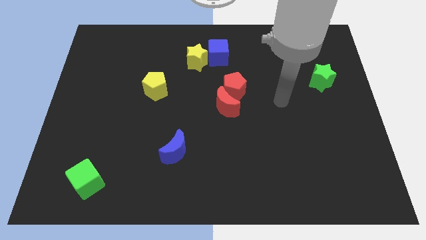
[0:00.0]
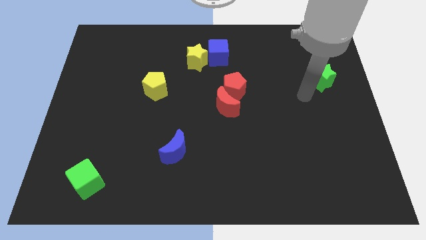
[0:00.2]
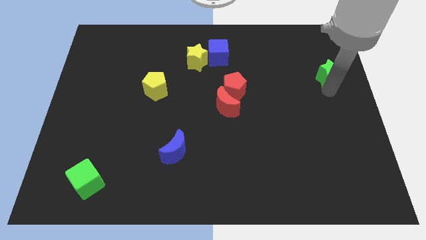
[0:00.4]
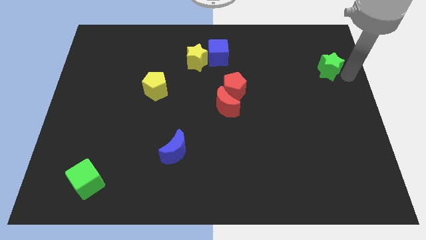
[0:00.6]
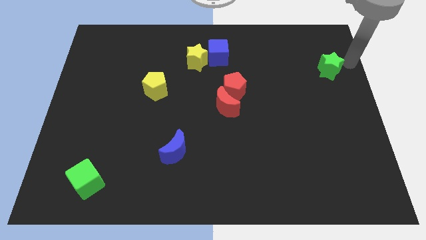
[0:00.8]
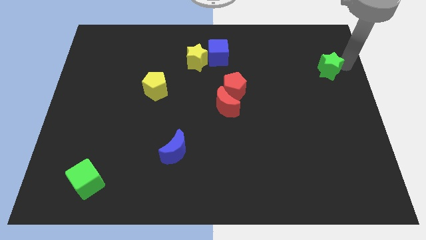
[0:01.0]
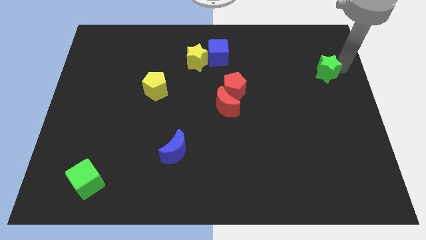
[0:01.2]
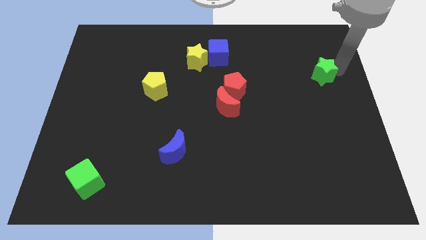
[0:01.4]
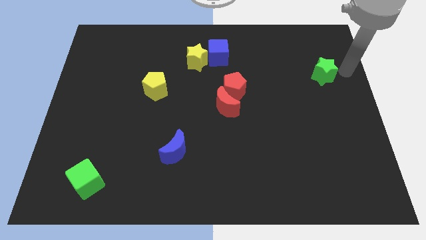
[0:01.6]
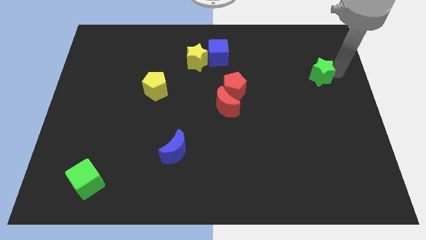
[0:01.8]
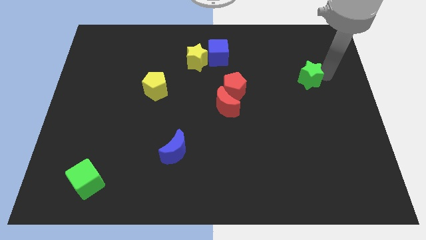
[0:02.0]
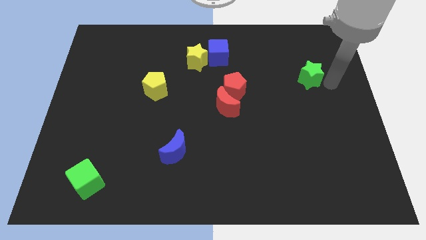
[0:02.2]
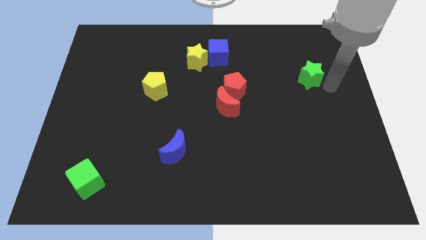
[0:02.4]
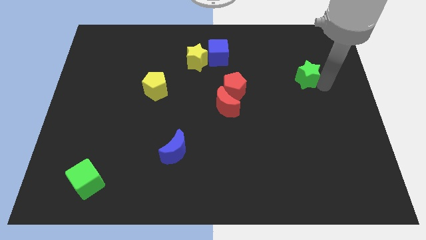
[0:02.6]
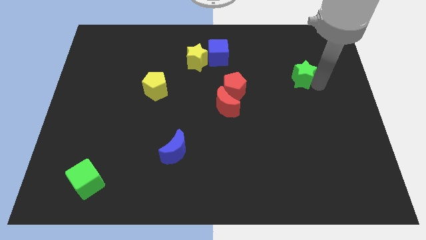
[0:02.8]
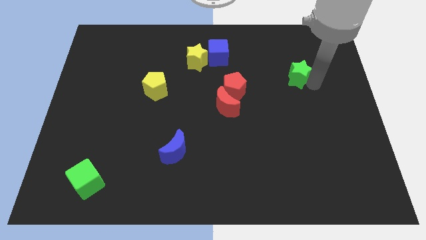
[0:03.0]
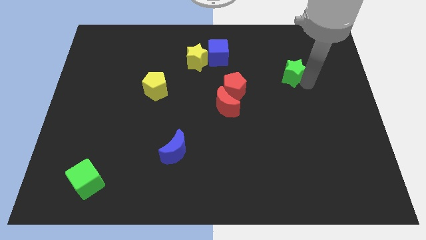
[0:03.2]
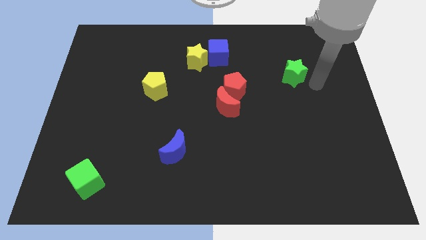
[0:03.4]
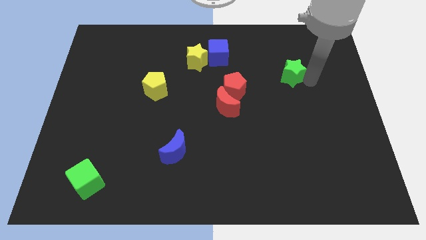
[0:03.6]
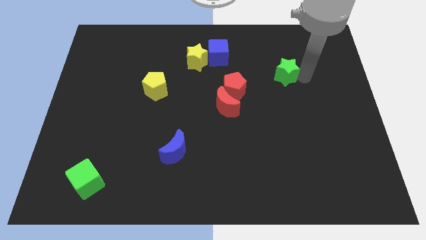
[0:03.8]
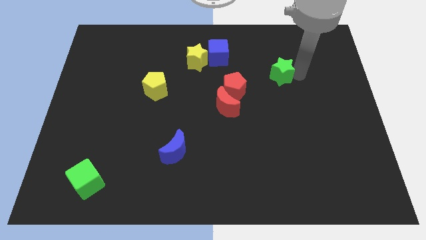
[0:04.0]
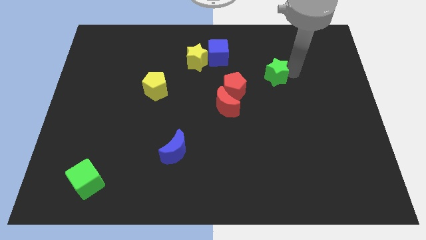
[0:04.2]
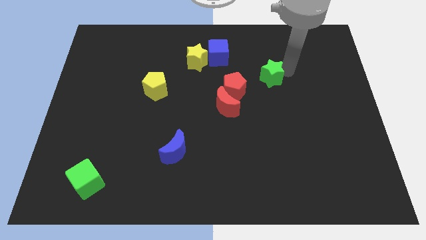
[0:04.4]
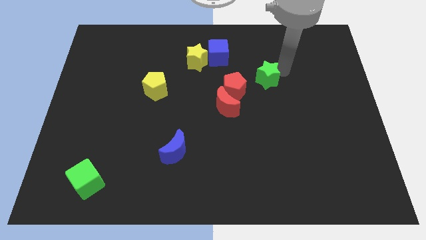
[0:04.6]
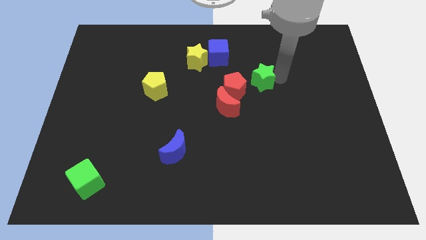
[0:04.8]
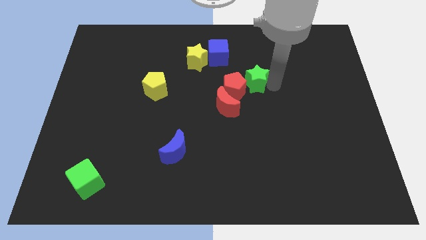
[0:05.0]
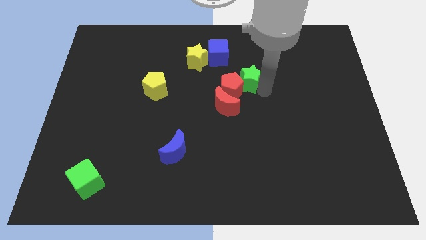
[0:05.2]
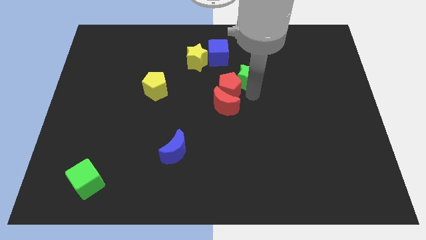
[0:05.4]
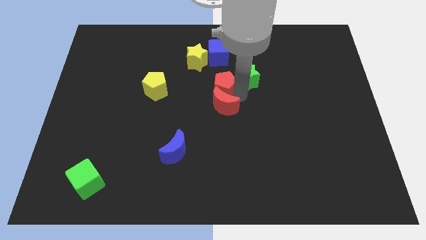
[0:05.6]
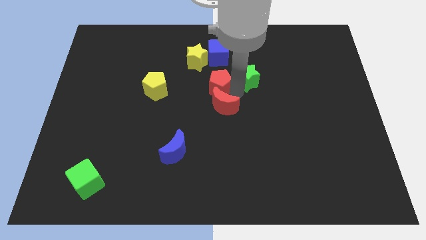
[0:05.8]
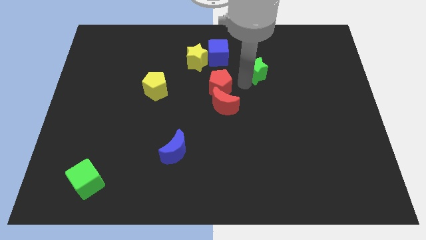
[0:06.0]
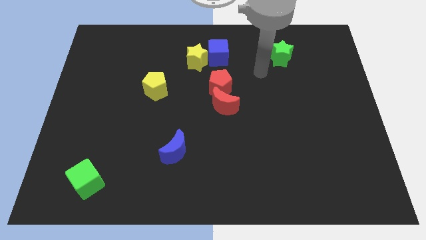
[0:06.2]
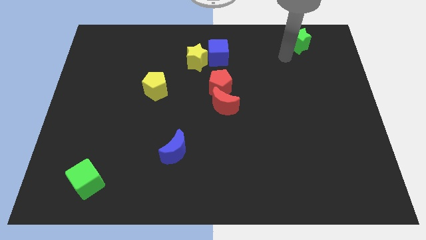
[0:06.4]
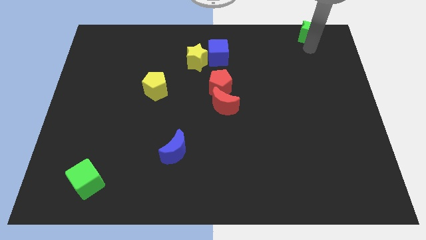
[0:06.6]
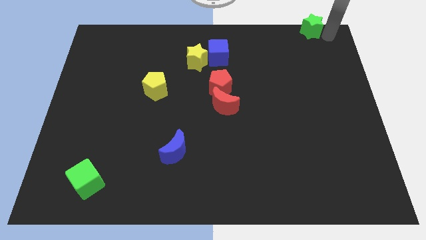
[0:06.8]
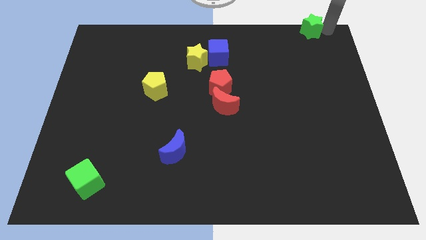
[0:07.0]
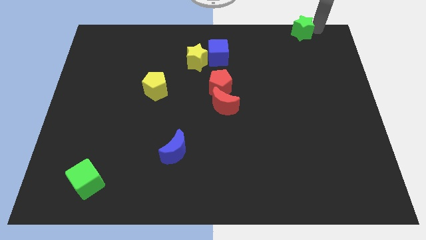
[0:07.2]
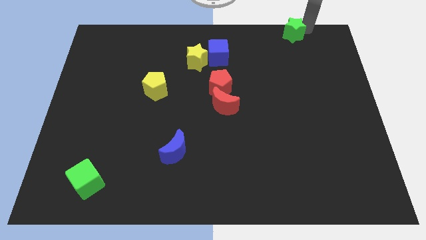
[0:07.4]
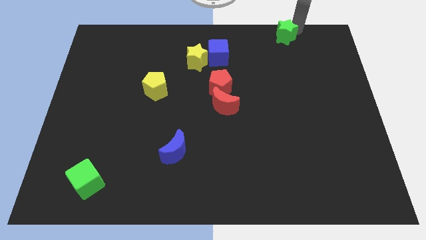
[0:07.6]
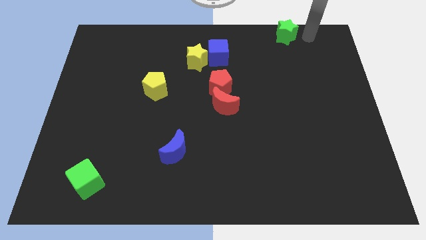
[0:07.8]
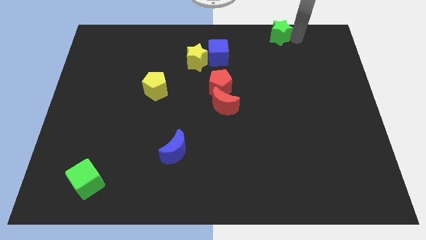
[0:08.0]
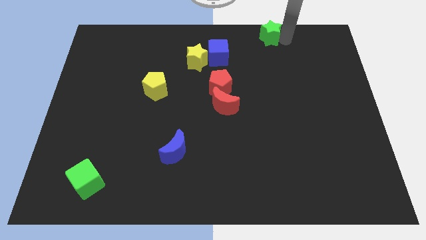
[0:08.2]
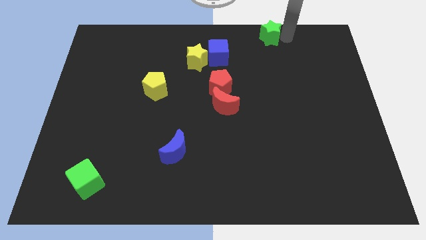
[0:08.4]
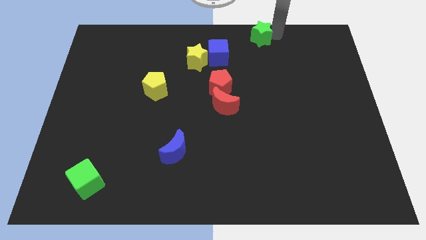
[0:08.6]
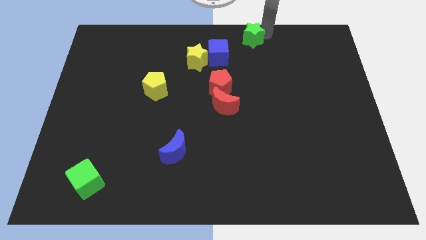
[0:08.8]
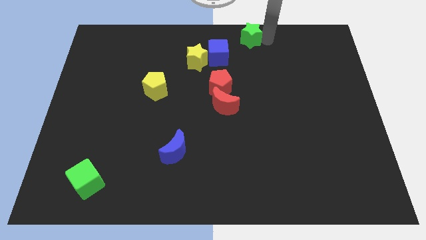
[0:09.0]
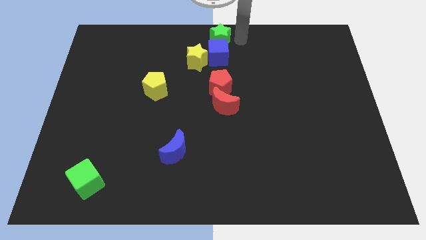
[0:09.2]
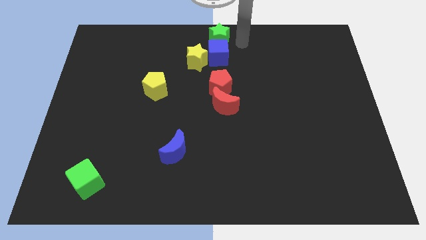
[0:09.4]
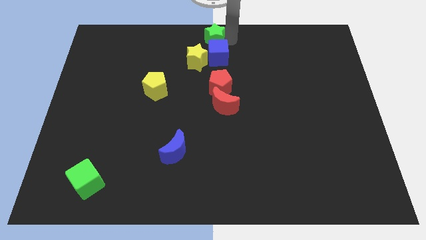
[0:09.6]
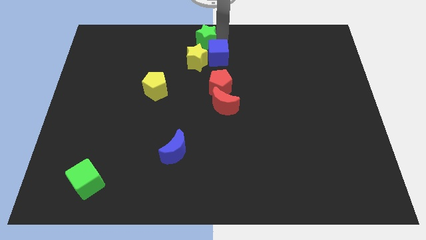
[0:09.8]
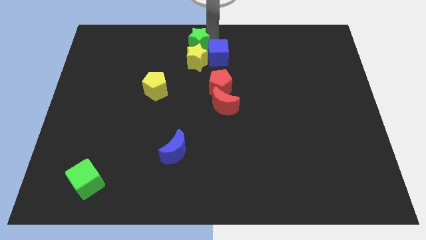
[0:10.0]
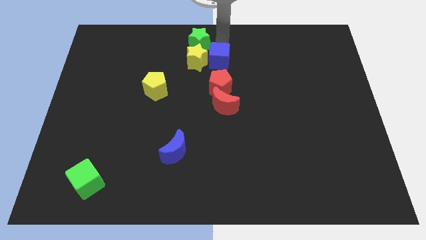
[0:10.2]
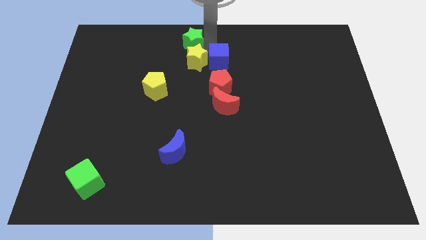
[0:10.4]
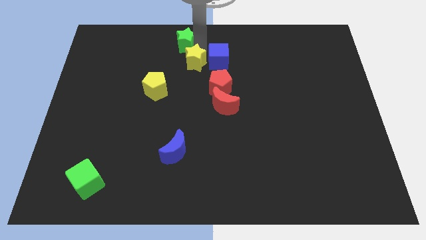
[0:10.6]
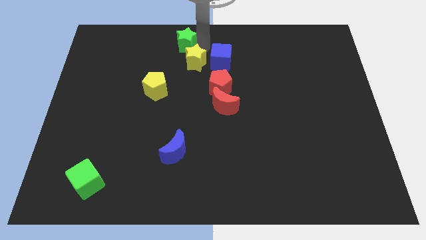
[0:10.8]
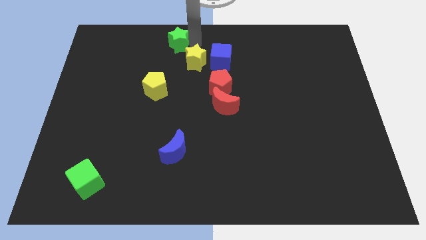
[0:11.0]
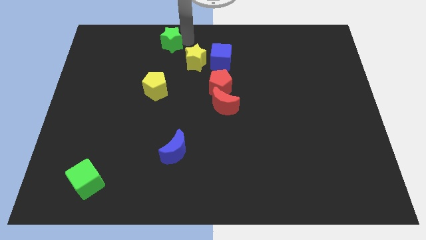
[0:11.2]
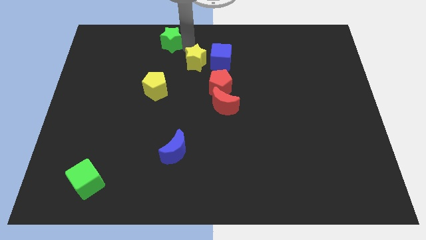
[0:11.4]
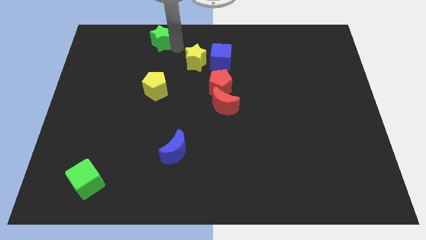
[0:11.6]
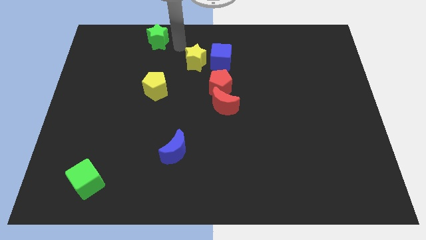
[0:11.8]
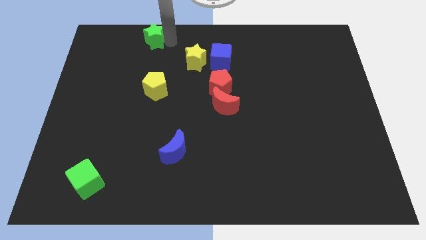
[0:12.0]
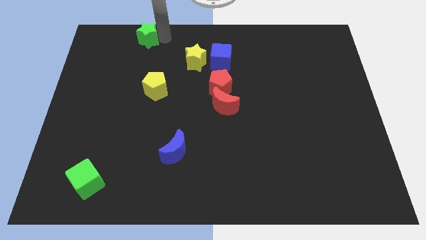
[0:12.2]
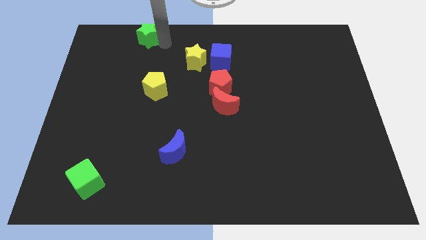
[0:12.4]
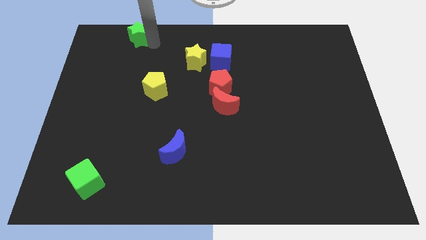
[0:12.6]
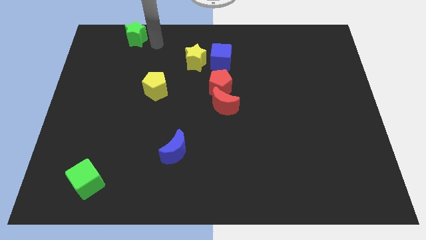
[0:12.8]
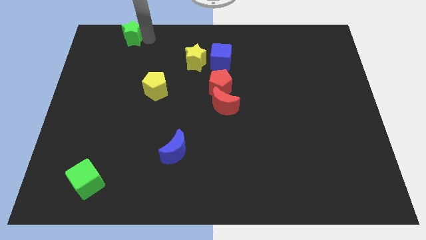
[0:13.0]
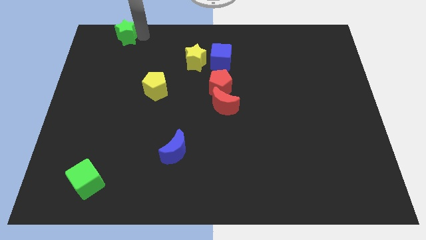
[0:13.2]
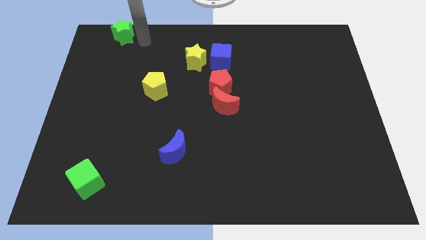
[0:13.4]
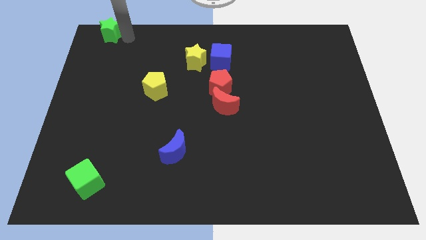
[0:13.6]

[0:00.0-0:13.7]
push the green star to the top left corner
